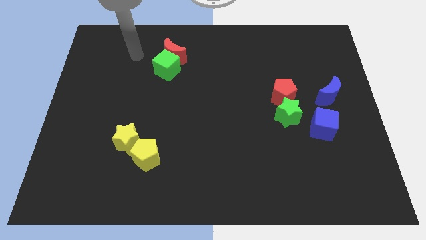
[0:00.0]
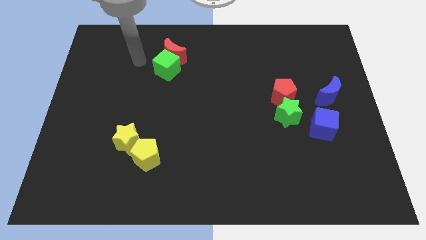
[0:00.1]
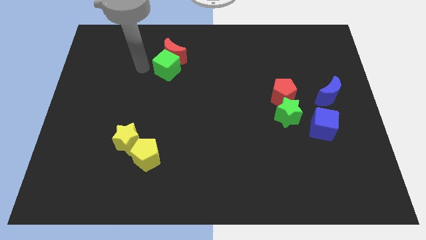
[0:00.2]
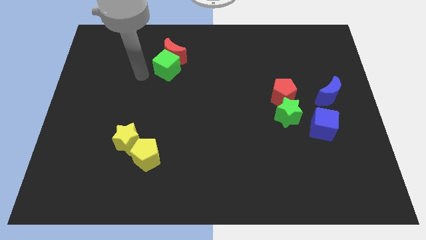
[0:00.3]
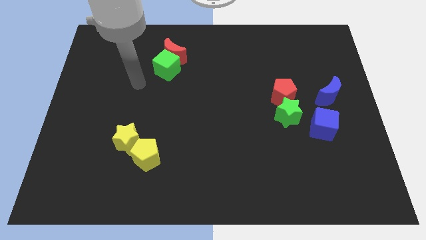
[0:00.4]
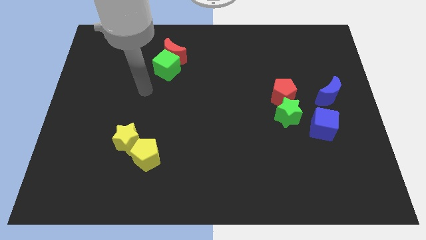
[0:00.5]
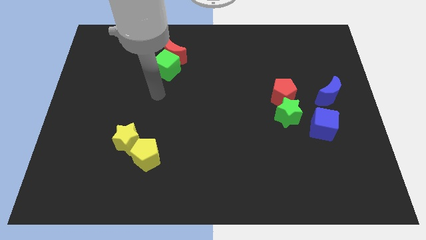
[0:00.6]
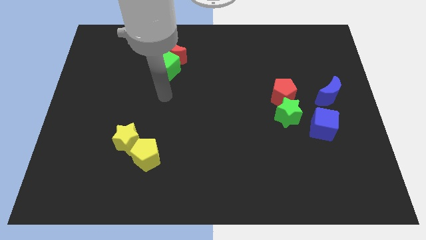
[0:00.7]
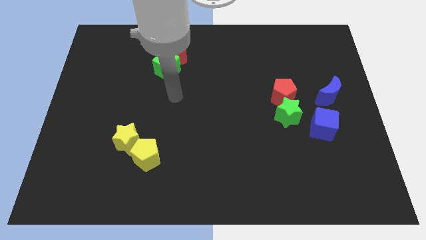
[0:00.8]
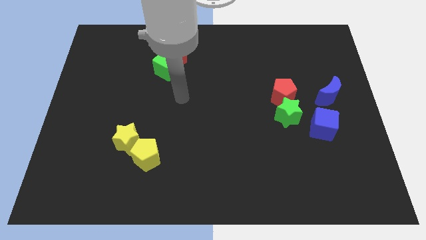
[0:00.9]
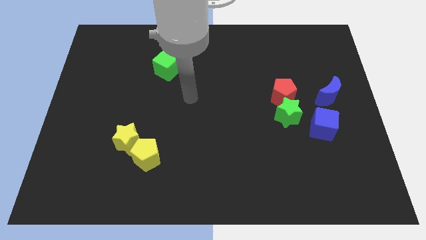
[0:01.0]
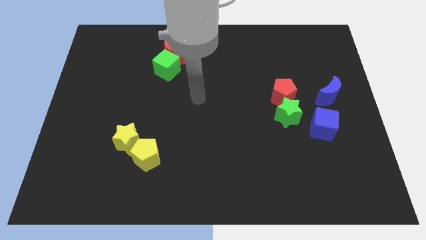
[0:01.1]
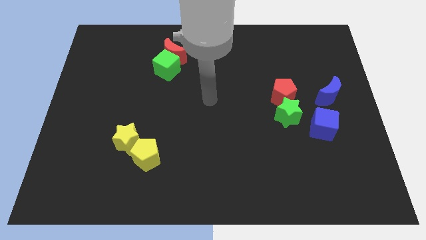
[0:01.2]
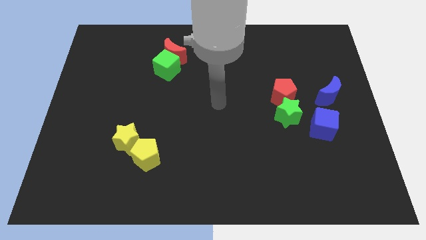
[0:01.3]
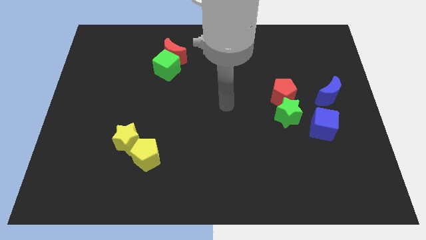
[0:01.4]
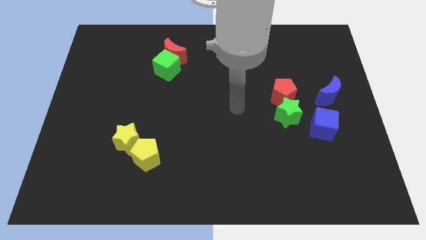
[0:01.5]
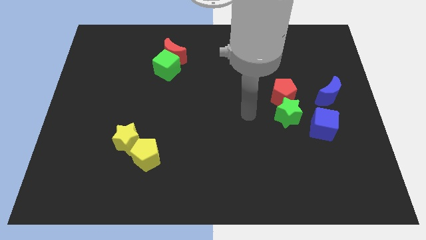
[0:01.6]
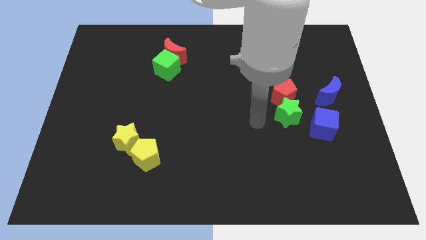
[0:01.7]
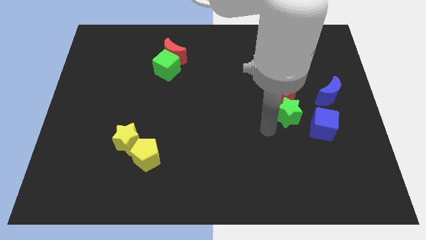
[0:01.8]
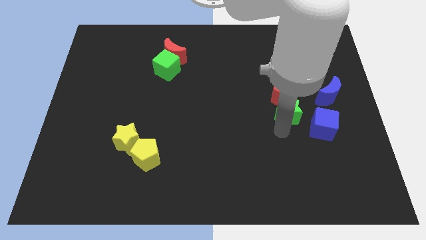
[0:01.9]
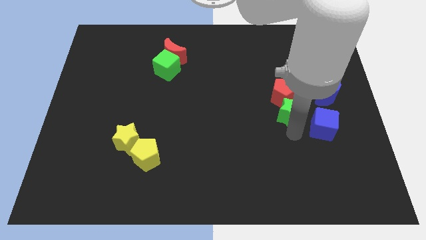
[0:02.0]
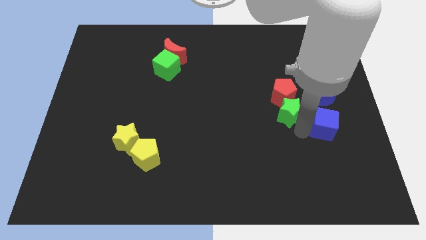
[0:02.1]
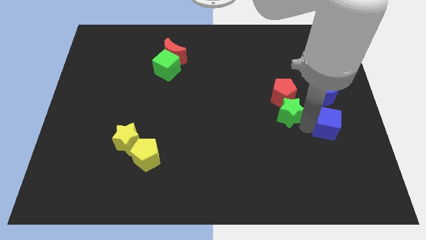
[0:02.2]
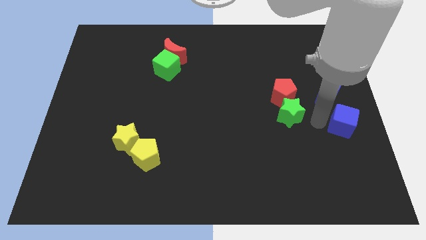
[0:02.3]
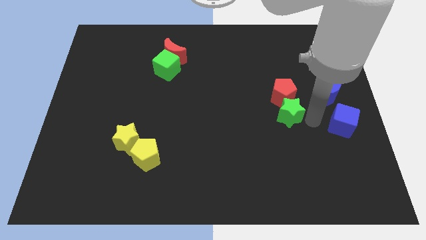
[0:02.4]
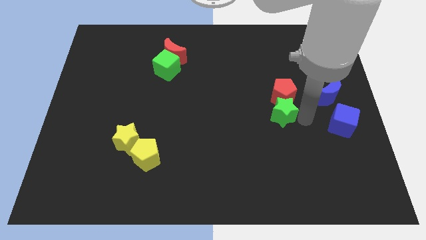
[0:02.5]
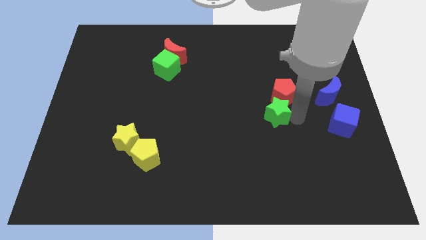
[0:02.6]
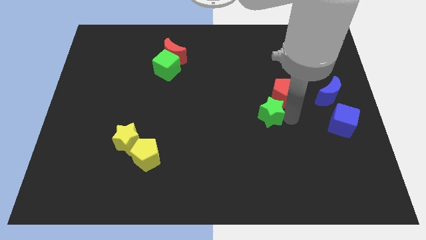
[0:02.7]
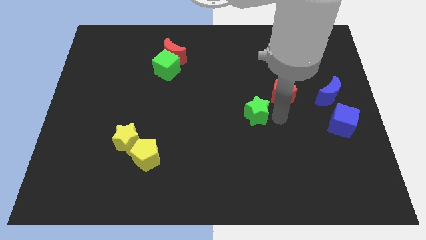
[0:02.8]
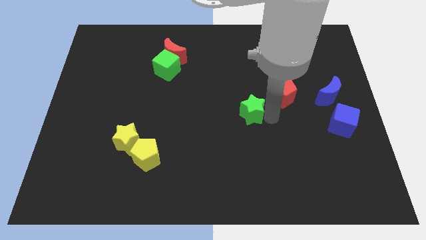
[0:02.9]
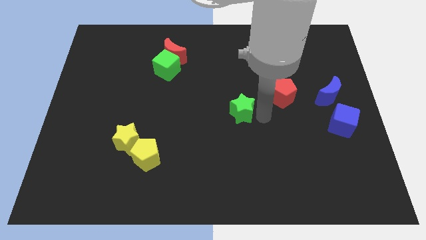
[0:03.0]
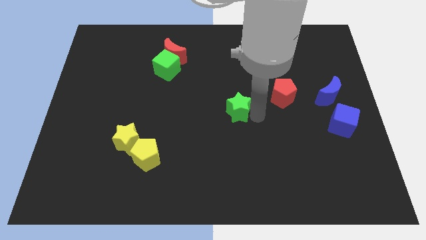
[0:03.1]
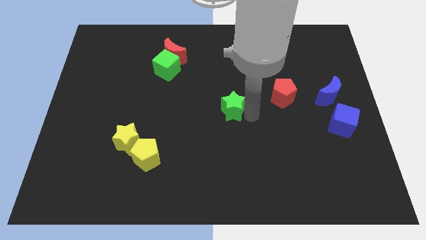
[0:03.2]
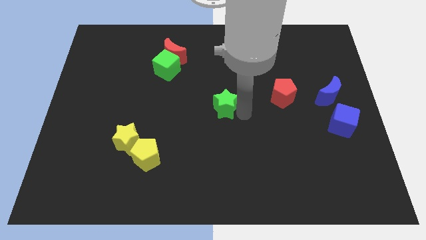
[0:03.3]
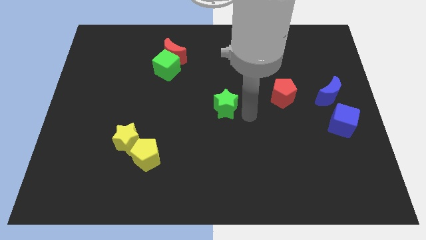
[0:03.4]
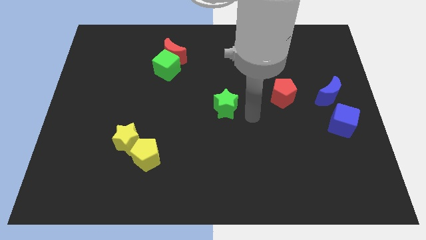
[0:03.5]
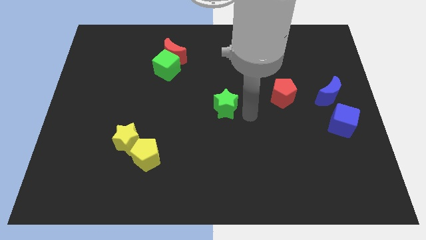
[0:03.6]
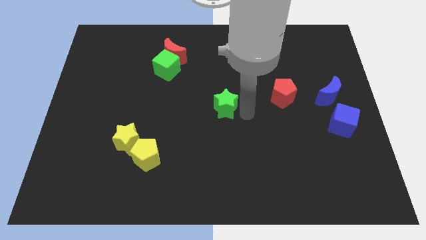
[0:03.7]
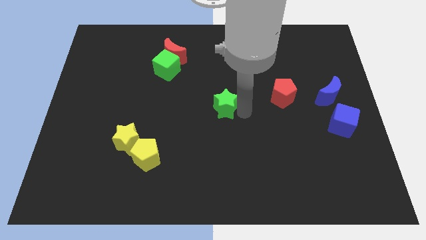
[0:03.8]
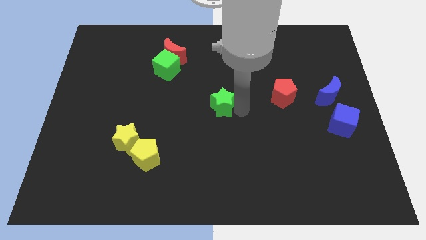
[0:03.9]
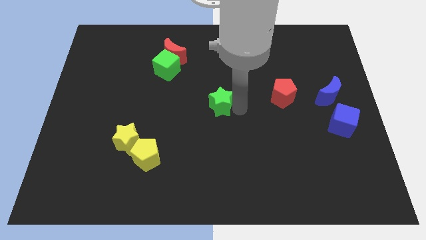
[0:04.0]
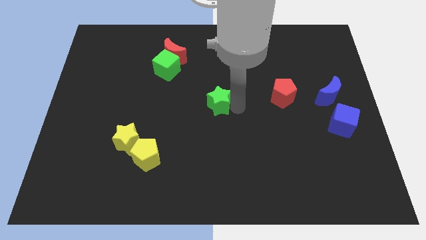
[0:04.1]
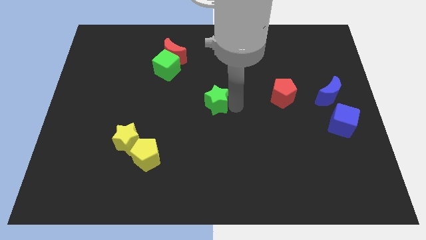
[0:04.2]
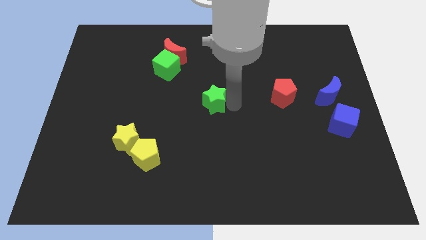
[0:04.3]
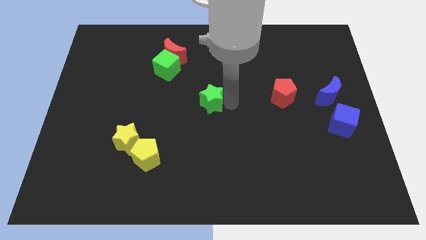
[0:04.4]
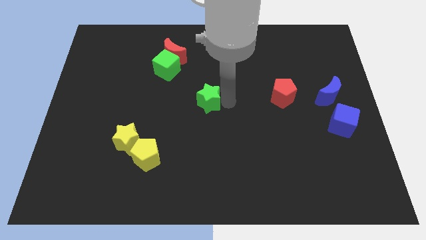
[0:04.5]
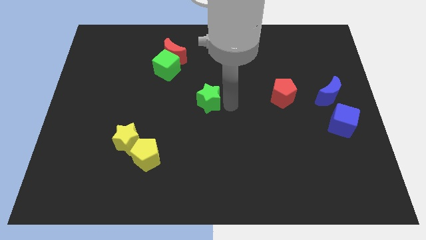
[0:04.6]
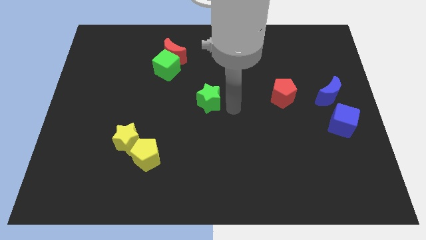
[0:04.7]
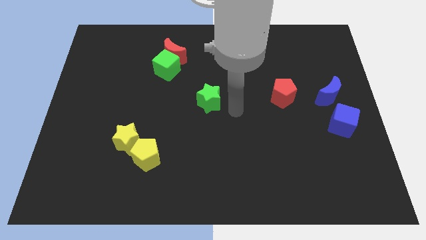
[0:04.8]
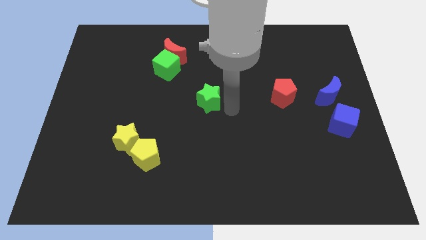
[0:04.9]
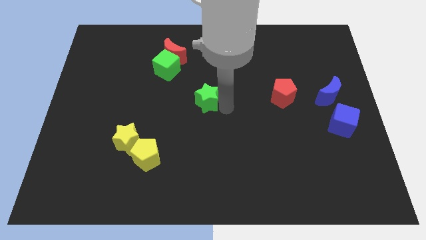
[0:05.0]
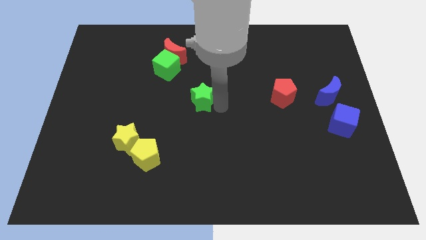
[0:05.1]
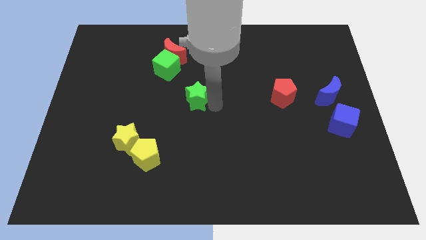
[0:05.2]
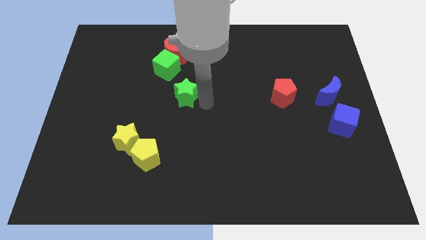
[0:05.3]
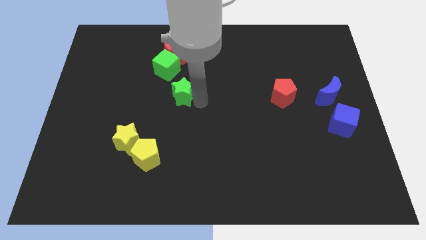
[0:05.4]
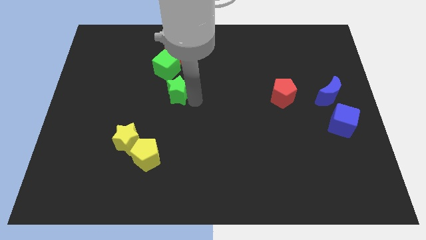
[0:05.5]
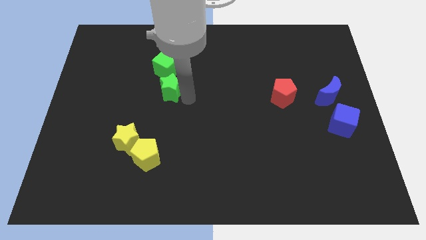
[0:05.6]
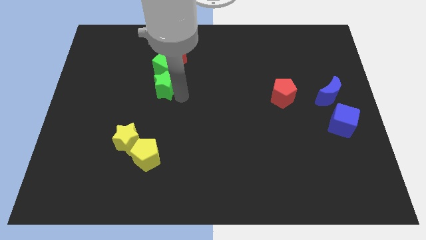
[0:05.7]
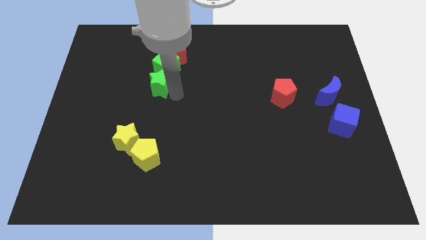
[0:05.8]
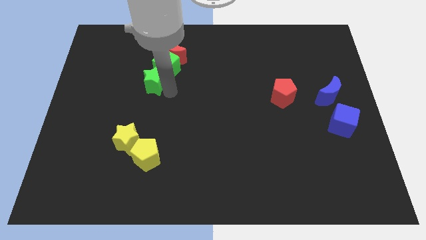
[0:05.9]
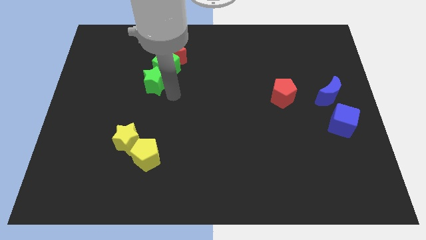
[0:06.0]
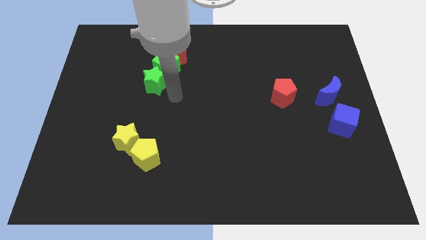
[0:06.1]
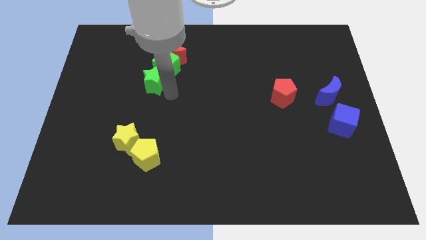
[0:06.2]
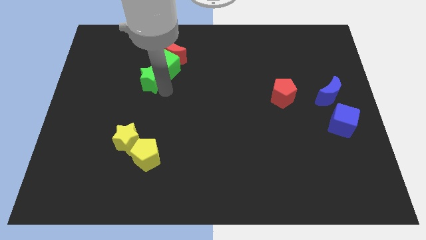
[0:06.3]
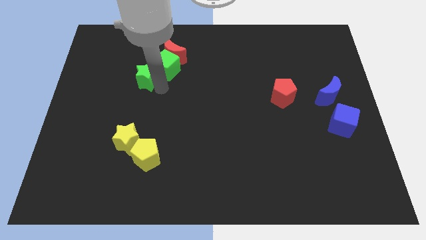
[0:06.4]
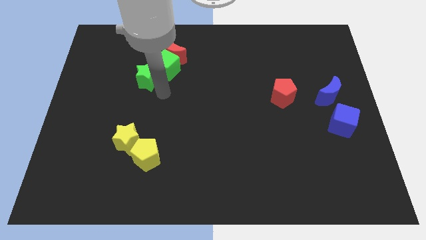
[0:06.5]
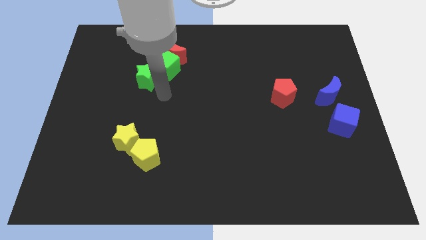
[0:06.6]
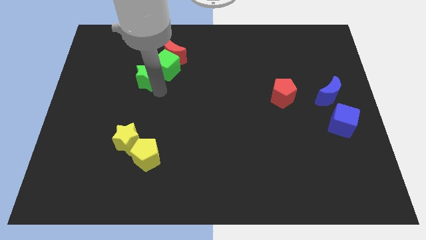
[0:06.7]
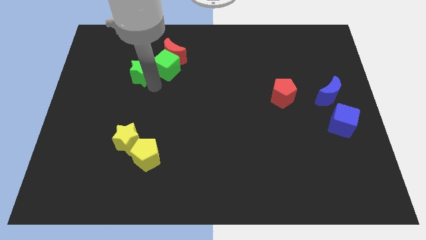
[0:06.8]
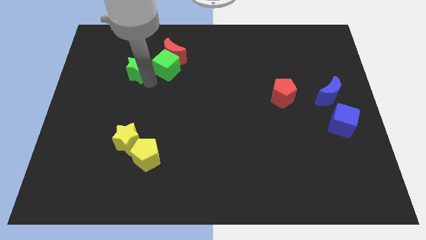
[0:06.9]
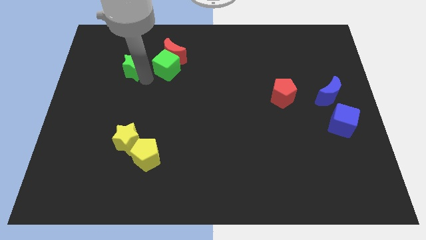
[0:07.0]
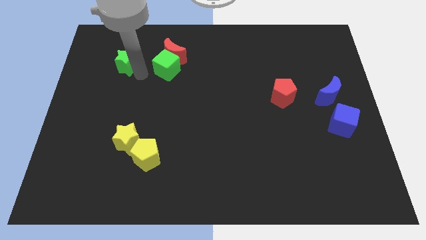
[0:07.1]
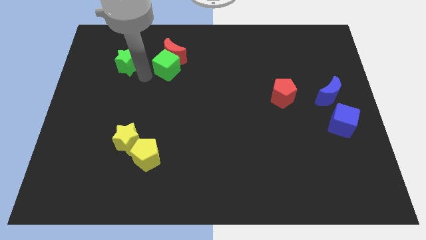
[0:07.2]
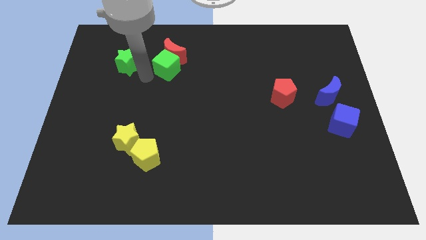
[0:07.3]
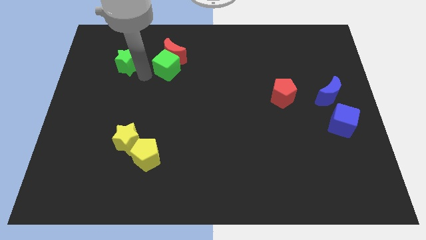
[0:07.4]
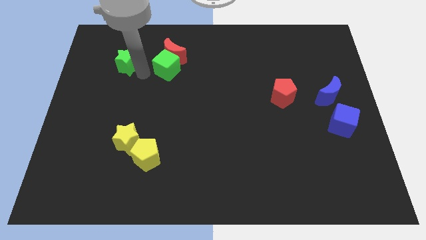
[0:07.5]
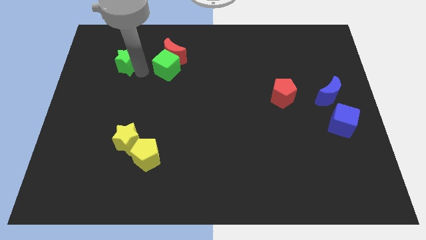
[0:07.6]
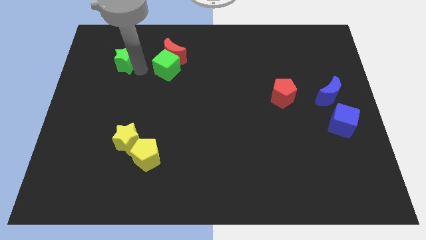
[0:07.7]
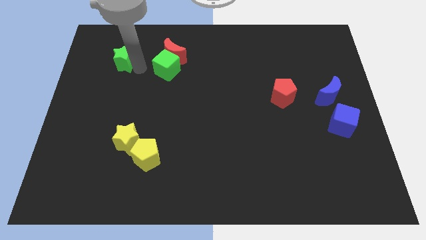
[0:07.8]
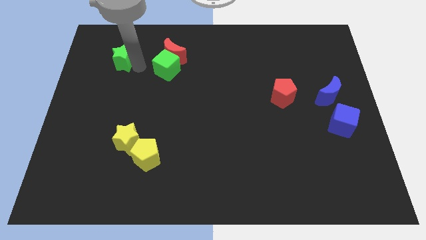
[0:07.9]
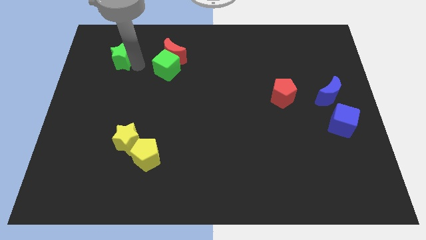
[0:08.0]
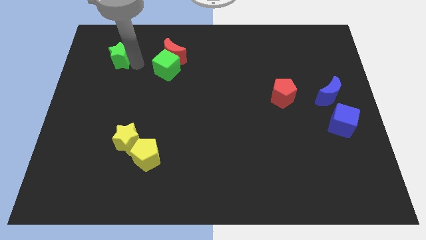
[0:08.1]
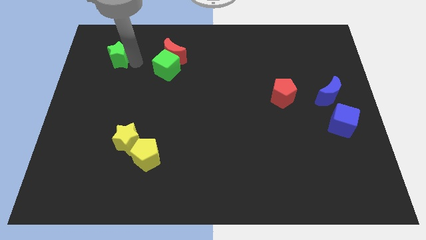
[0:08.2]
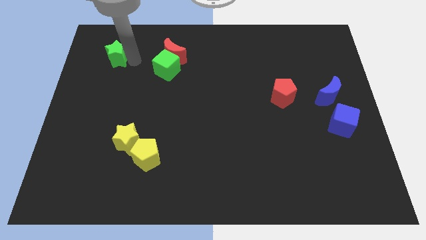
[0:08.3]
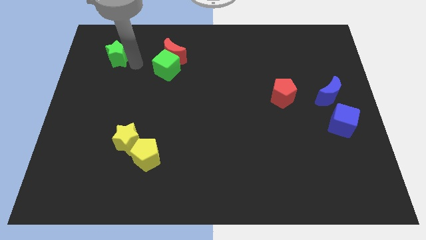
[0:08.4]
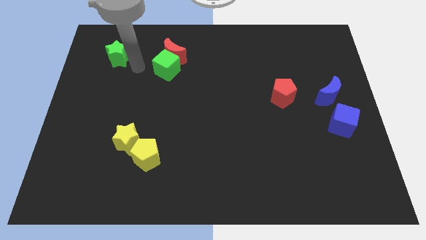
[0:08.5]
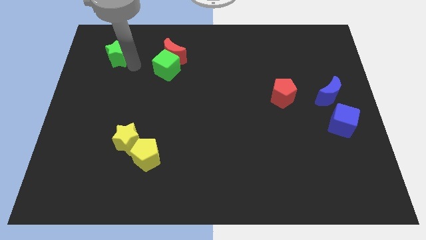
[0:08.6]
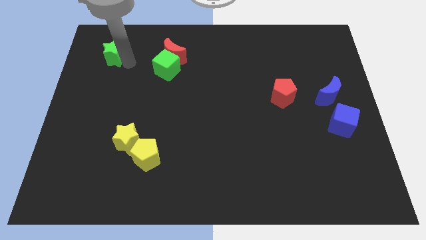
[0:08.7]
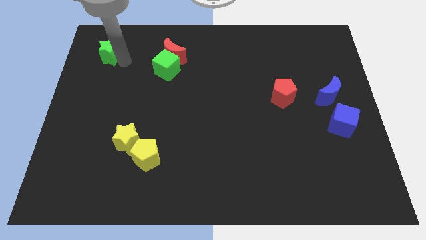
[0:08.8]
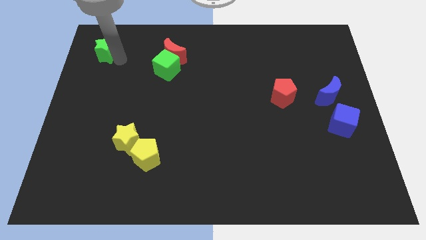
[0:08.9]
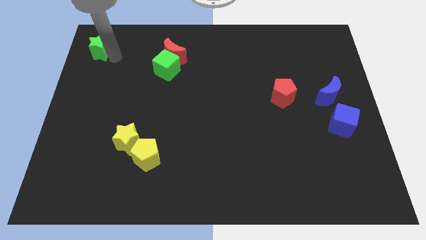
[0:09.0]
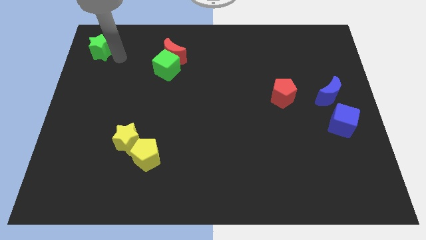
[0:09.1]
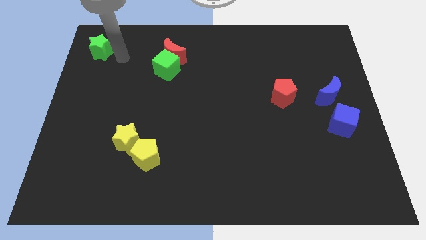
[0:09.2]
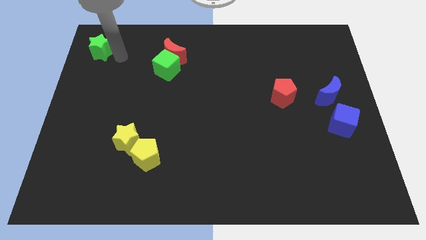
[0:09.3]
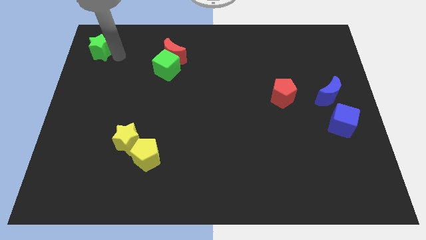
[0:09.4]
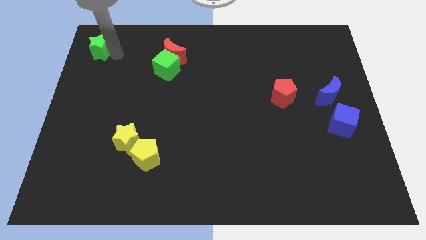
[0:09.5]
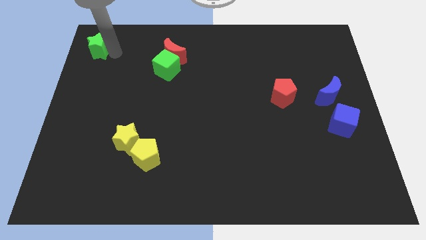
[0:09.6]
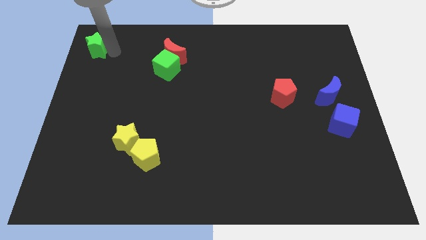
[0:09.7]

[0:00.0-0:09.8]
put the green star to the top left
